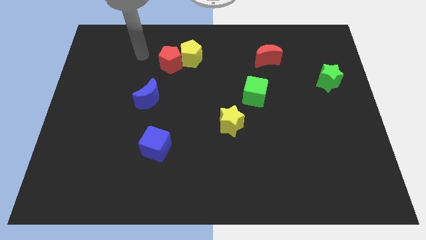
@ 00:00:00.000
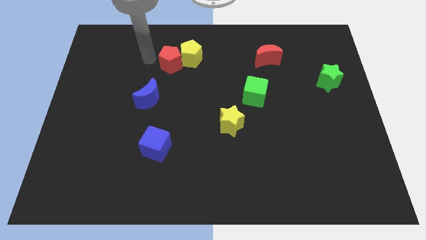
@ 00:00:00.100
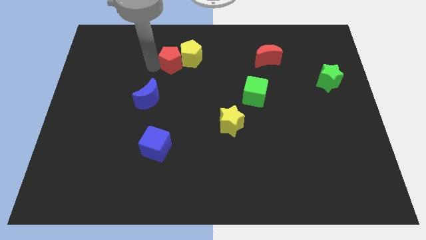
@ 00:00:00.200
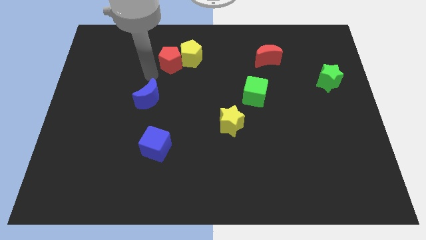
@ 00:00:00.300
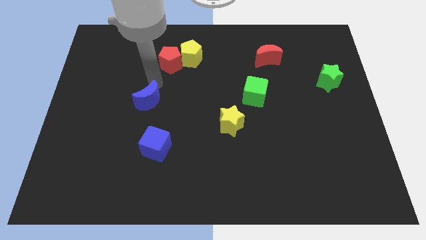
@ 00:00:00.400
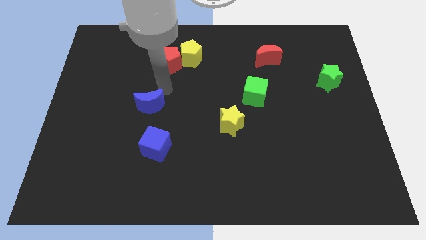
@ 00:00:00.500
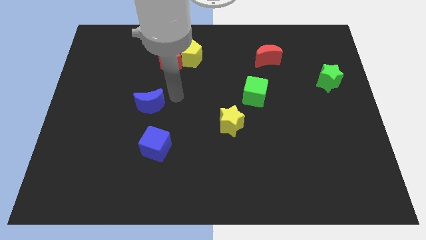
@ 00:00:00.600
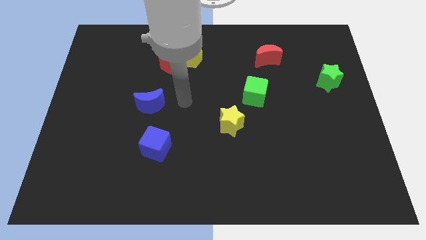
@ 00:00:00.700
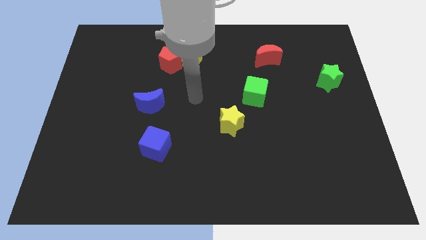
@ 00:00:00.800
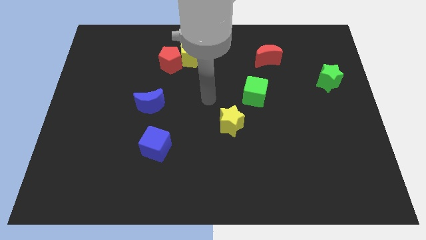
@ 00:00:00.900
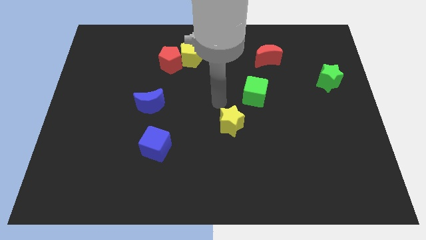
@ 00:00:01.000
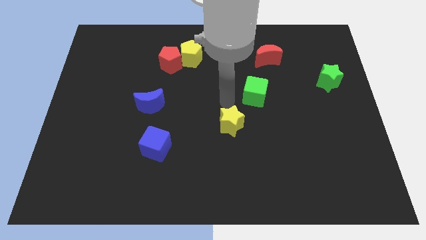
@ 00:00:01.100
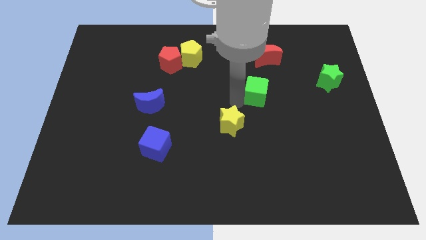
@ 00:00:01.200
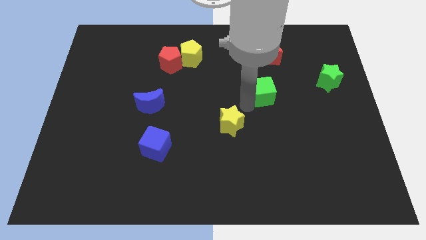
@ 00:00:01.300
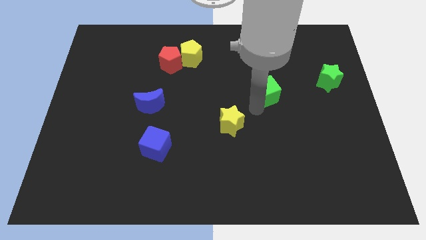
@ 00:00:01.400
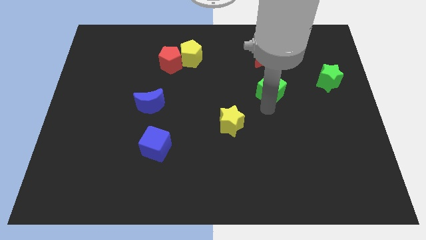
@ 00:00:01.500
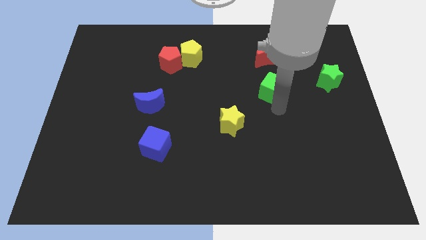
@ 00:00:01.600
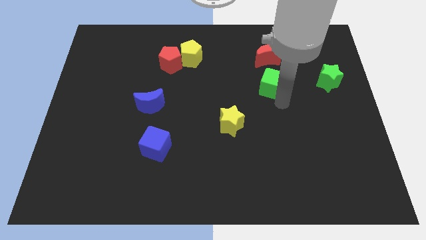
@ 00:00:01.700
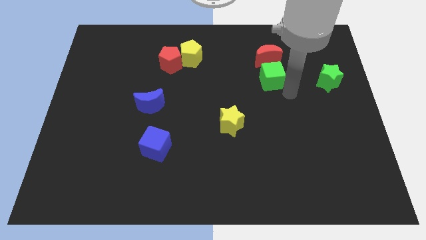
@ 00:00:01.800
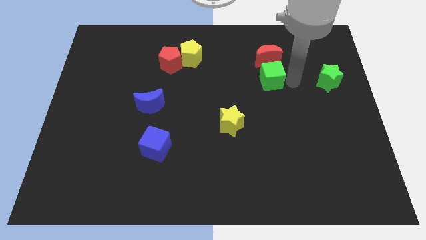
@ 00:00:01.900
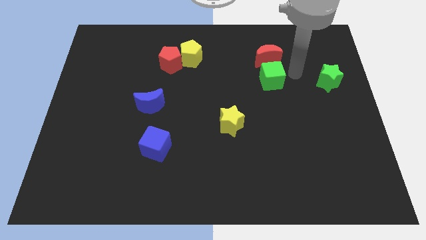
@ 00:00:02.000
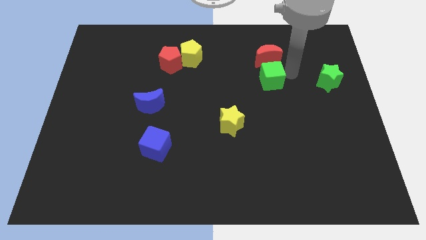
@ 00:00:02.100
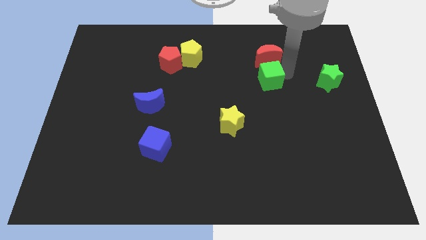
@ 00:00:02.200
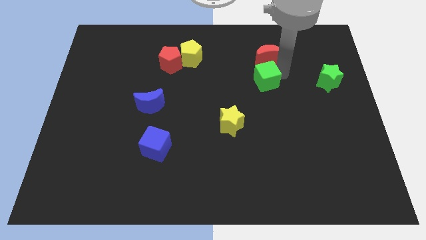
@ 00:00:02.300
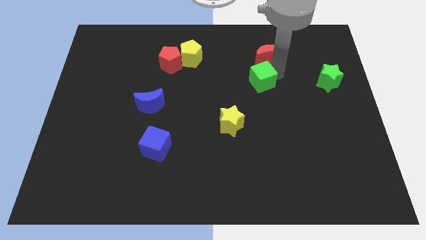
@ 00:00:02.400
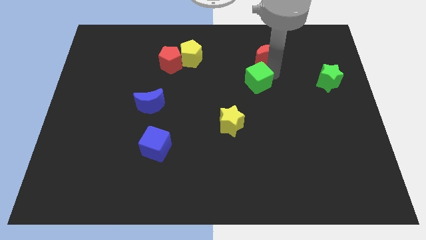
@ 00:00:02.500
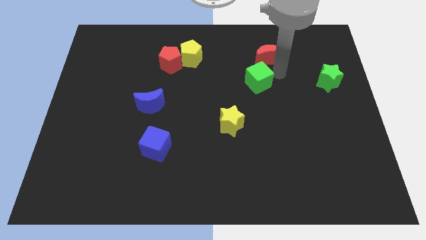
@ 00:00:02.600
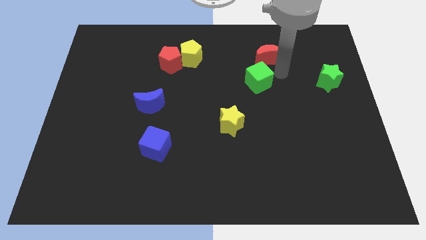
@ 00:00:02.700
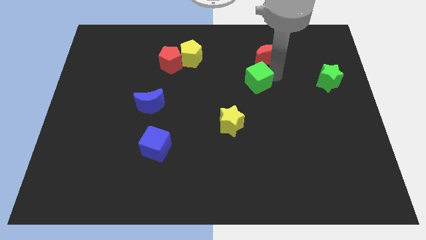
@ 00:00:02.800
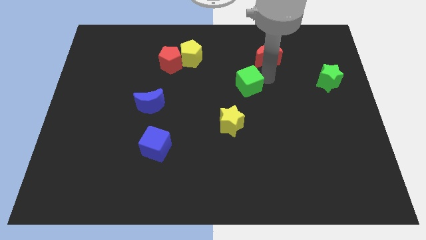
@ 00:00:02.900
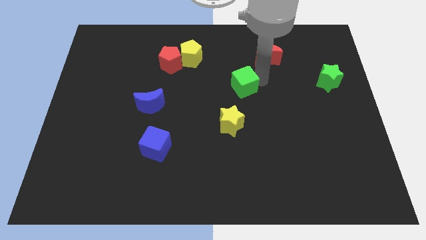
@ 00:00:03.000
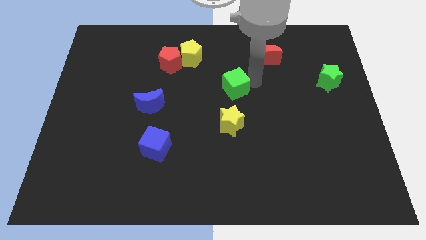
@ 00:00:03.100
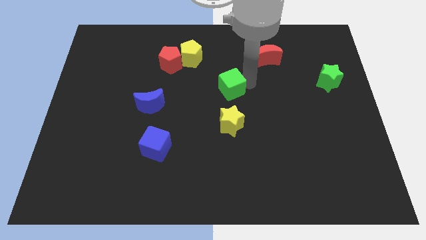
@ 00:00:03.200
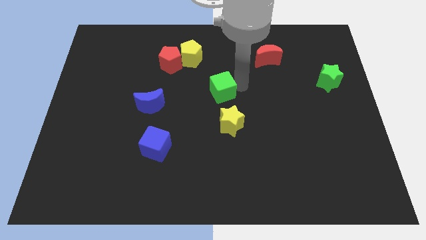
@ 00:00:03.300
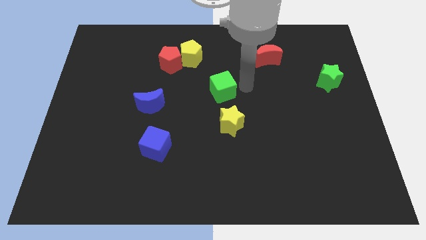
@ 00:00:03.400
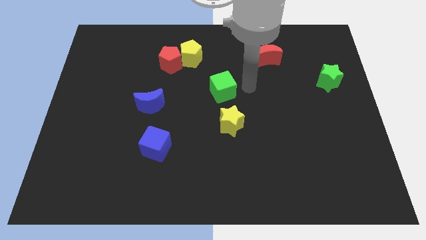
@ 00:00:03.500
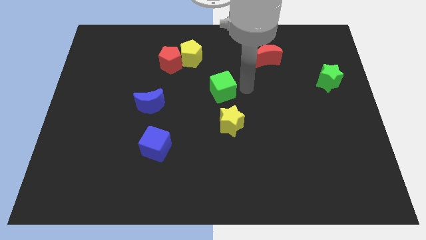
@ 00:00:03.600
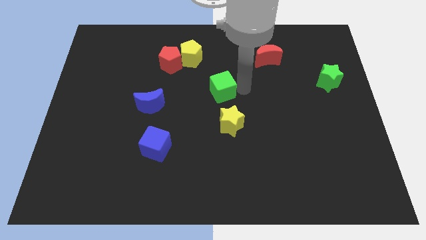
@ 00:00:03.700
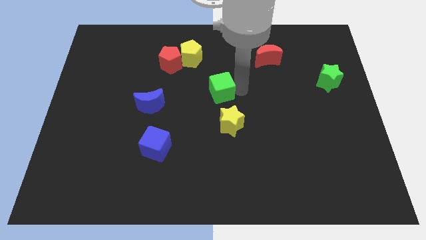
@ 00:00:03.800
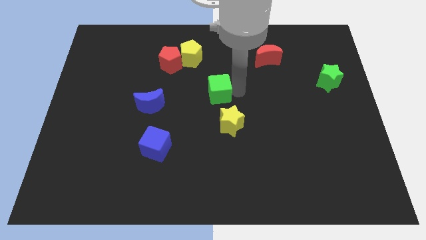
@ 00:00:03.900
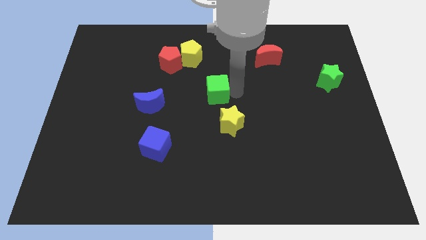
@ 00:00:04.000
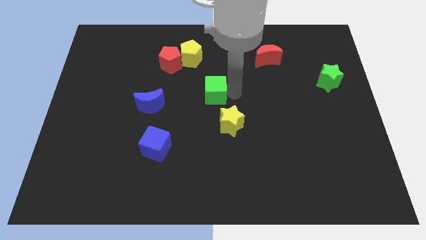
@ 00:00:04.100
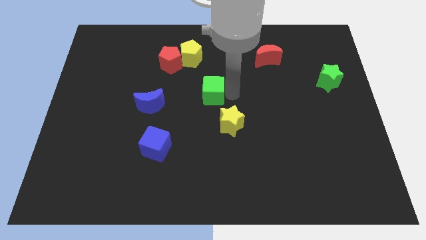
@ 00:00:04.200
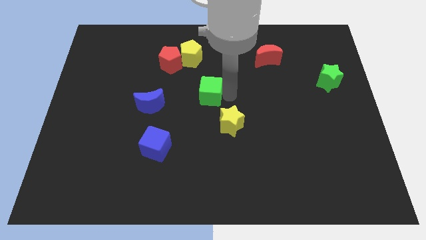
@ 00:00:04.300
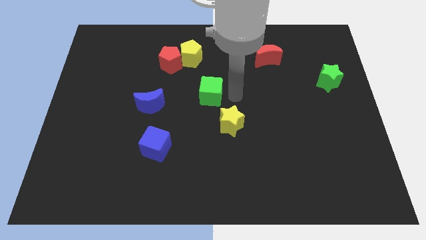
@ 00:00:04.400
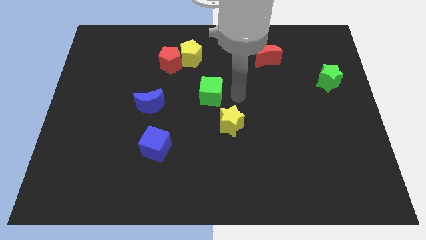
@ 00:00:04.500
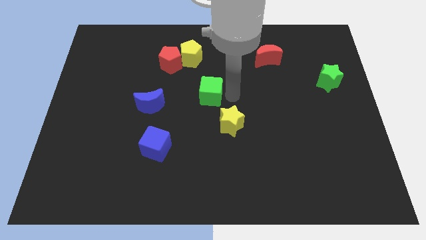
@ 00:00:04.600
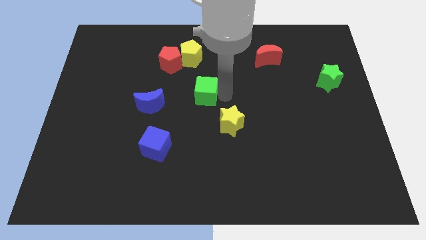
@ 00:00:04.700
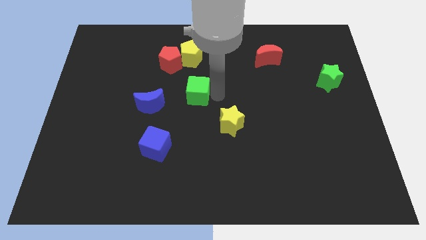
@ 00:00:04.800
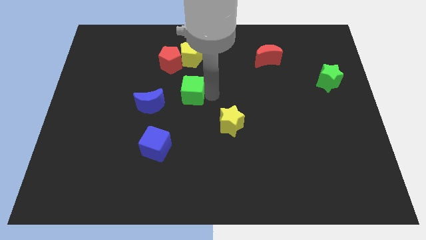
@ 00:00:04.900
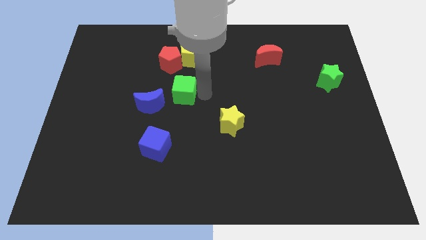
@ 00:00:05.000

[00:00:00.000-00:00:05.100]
move the green cube to the bottom side of the red pentagon

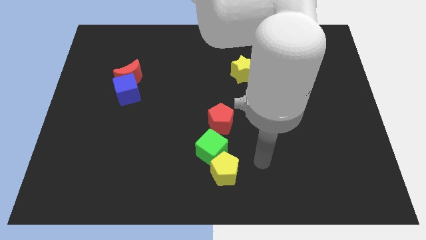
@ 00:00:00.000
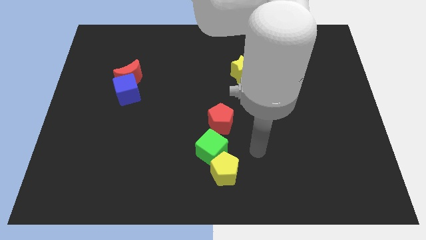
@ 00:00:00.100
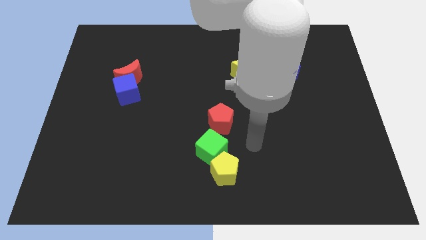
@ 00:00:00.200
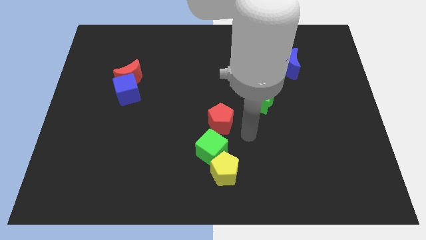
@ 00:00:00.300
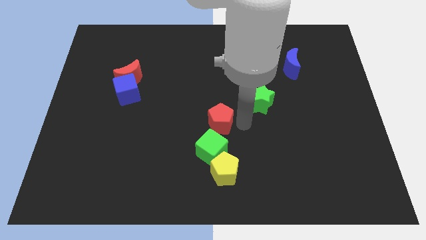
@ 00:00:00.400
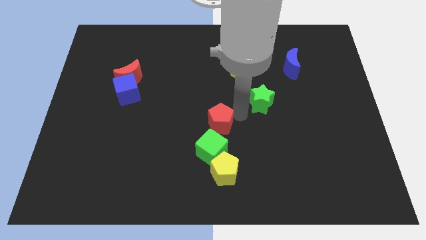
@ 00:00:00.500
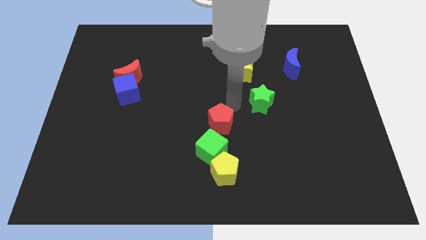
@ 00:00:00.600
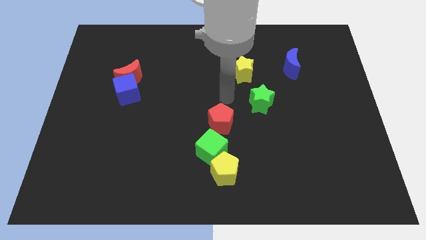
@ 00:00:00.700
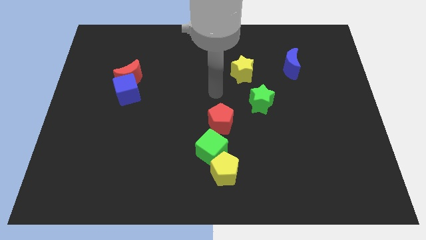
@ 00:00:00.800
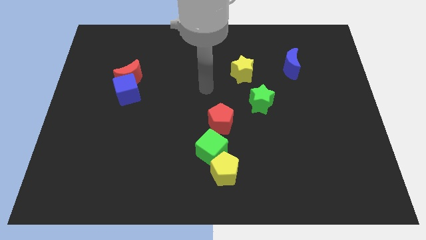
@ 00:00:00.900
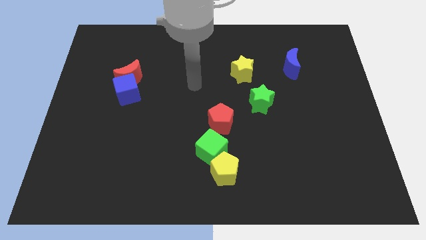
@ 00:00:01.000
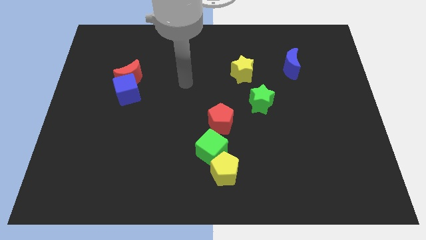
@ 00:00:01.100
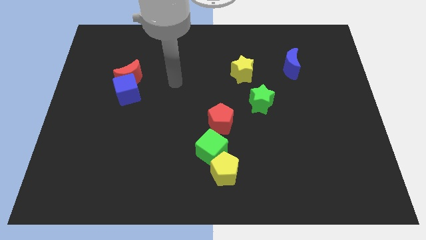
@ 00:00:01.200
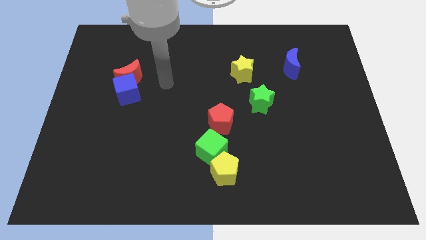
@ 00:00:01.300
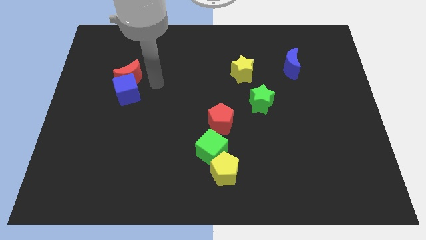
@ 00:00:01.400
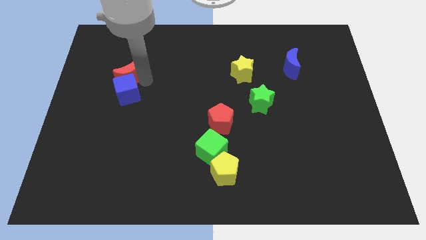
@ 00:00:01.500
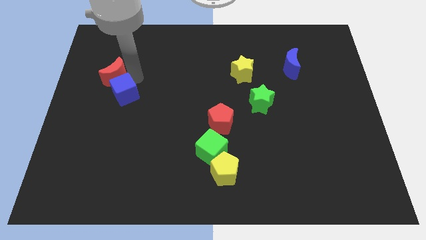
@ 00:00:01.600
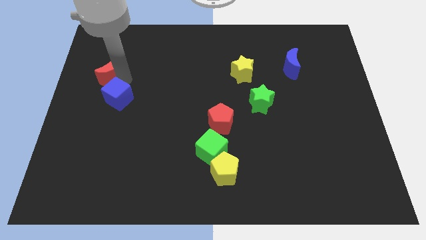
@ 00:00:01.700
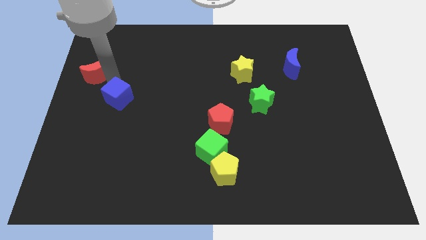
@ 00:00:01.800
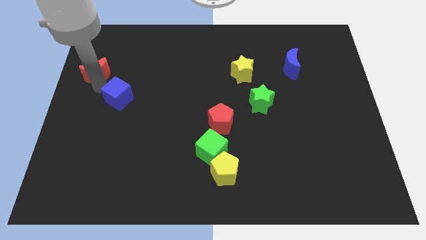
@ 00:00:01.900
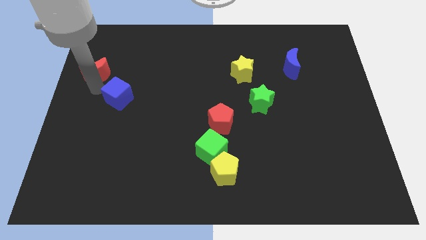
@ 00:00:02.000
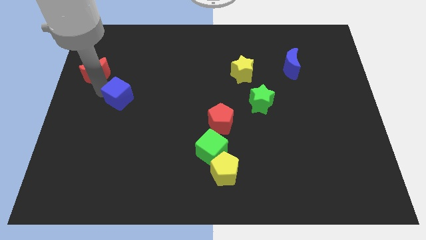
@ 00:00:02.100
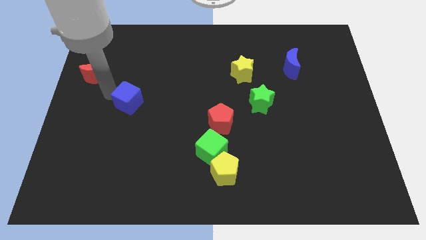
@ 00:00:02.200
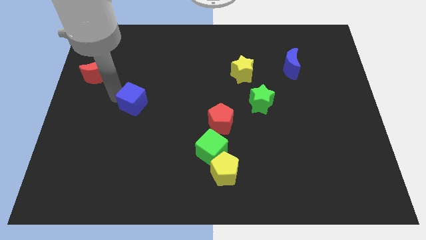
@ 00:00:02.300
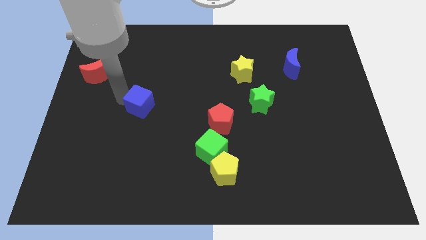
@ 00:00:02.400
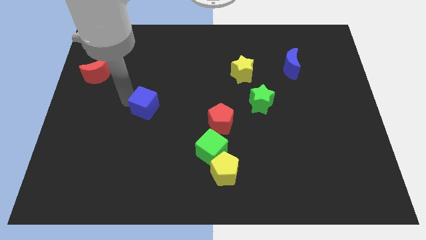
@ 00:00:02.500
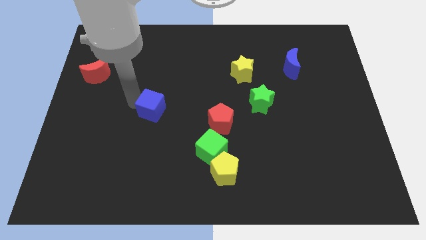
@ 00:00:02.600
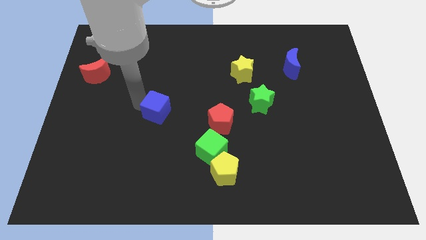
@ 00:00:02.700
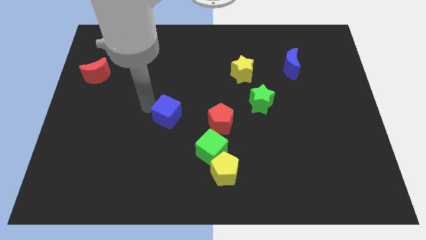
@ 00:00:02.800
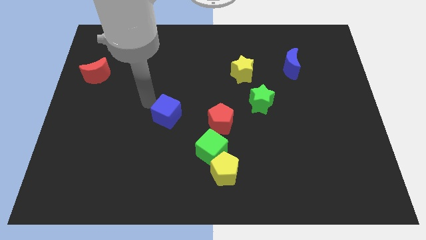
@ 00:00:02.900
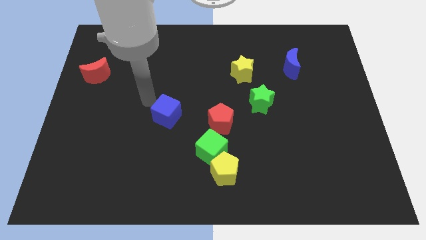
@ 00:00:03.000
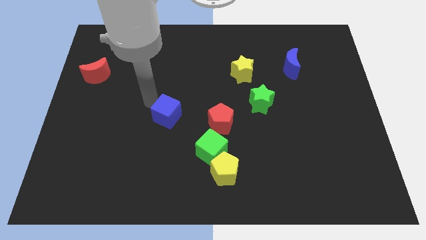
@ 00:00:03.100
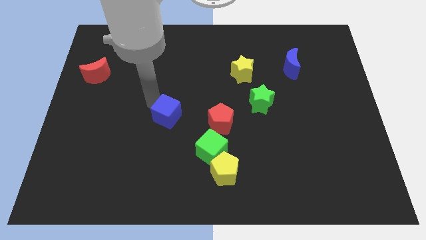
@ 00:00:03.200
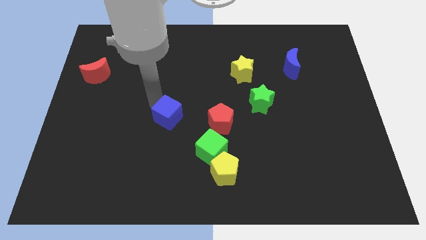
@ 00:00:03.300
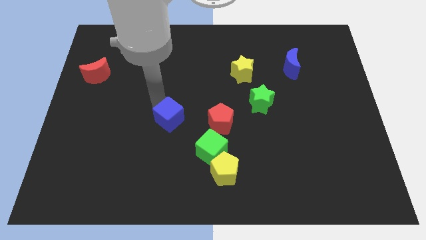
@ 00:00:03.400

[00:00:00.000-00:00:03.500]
push the blue cube to the top left of the green cube
